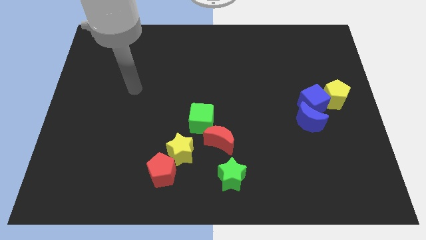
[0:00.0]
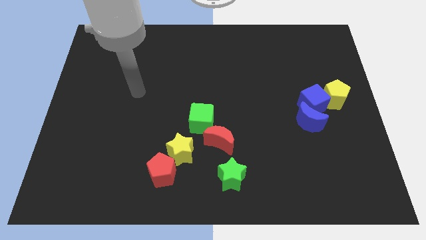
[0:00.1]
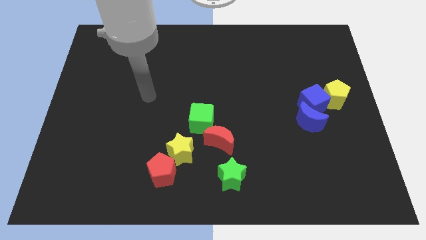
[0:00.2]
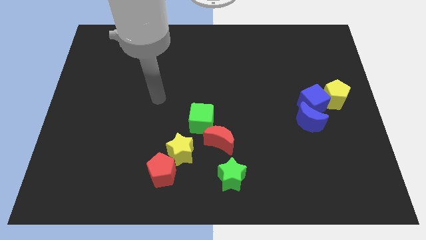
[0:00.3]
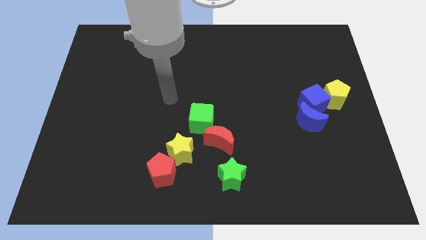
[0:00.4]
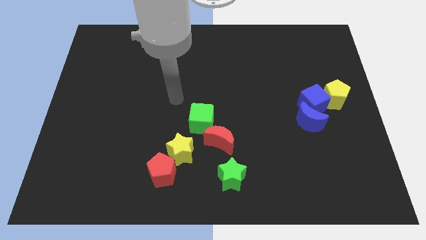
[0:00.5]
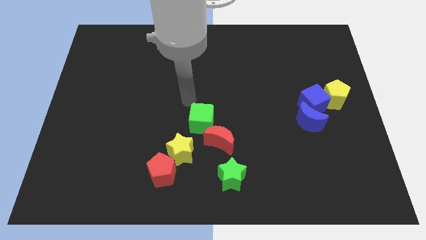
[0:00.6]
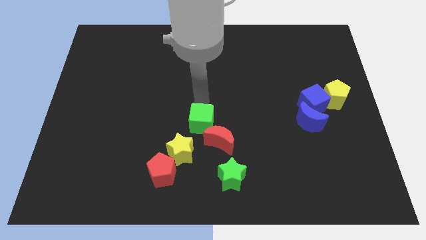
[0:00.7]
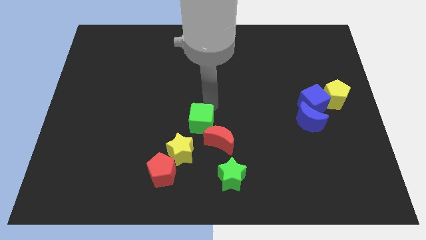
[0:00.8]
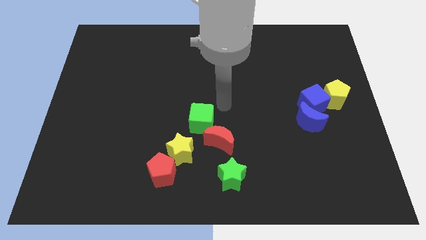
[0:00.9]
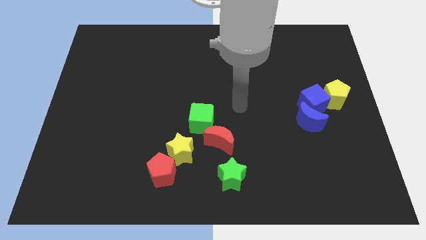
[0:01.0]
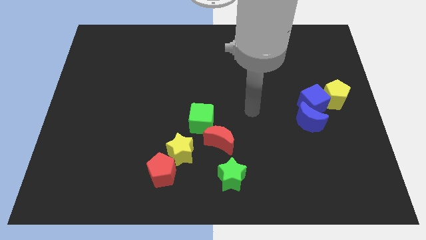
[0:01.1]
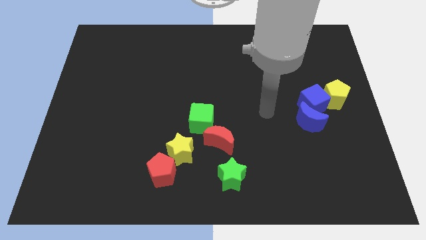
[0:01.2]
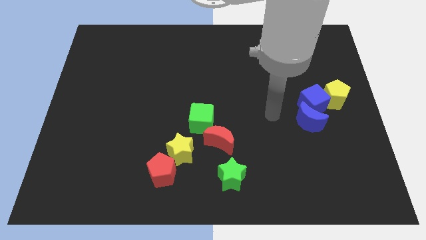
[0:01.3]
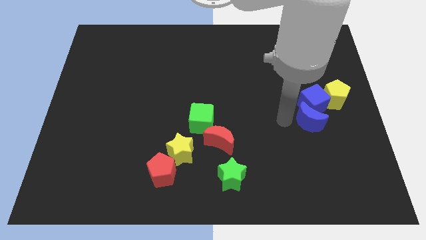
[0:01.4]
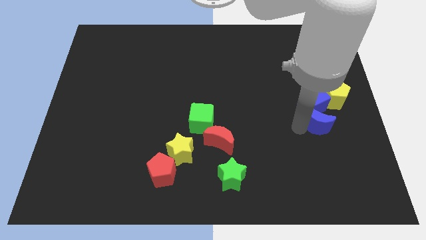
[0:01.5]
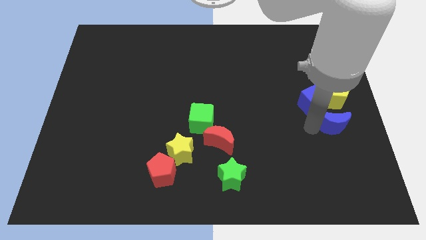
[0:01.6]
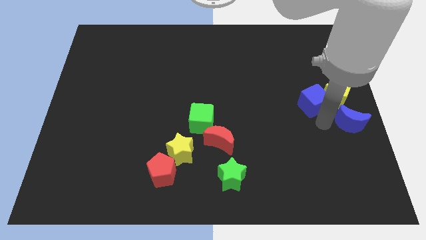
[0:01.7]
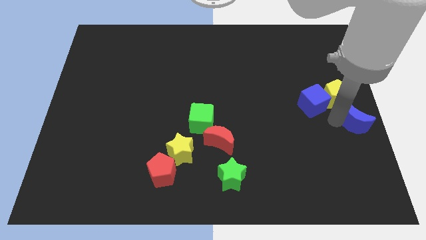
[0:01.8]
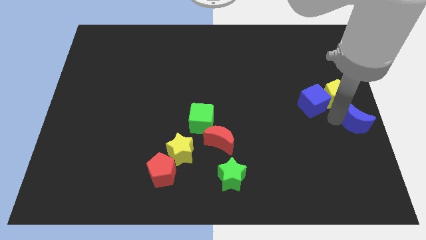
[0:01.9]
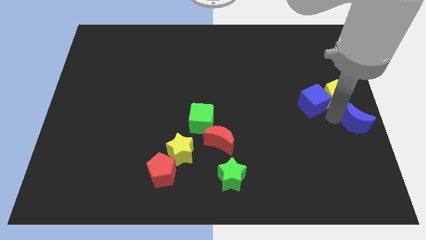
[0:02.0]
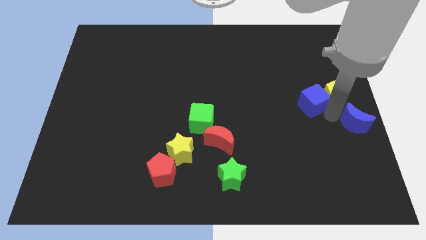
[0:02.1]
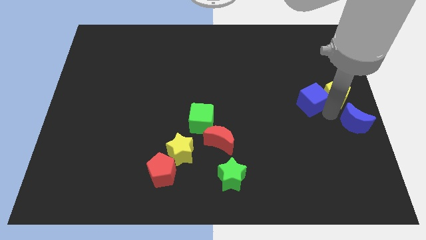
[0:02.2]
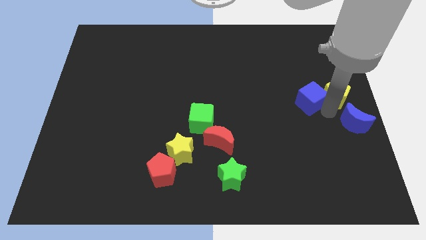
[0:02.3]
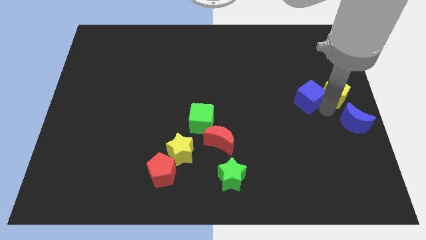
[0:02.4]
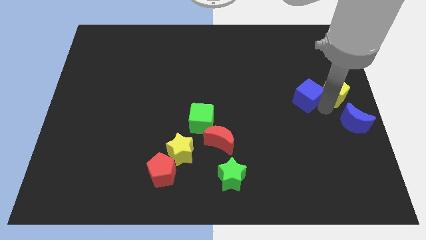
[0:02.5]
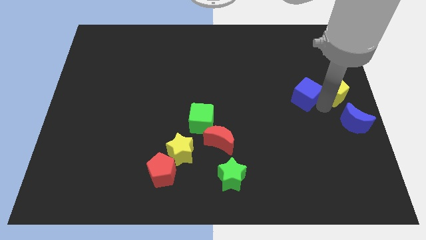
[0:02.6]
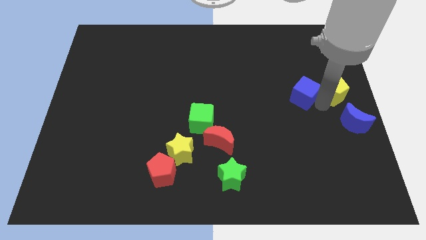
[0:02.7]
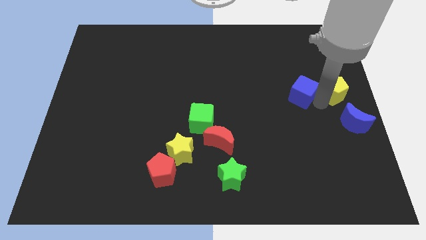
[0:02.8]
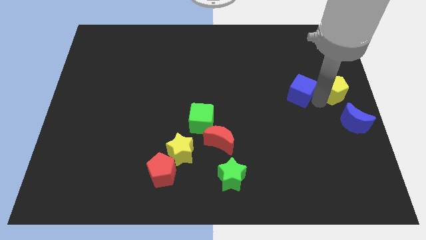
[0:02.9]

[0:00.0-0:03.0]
pull the blue cube apart from the blue moon and yellow pentagon

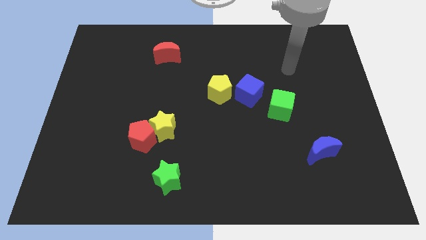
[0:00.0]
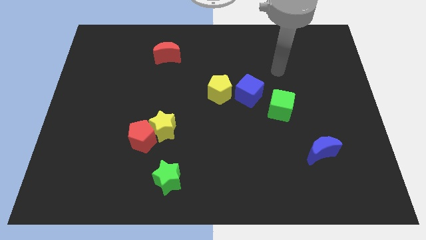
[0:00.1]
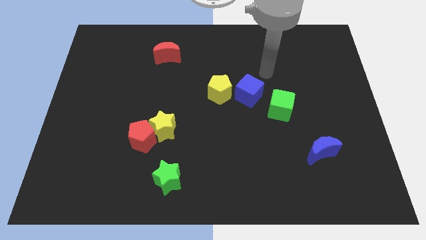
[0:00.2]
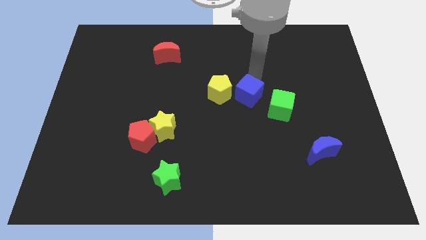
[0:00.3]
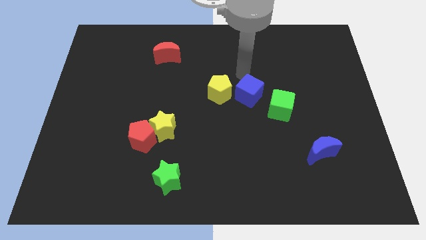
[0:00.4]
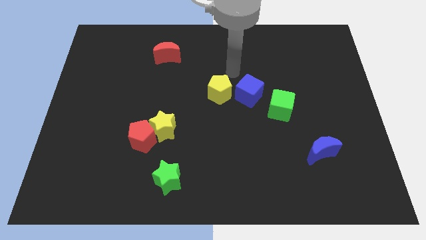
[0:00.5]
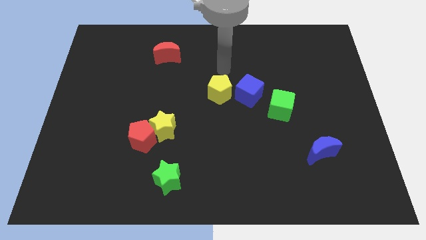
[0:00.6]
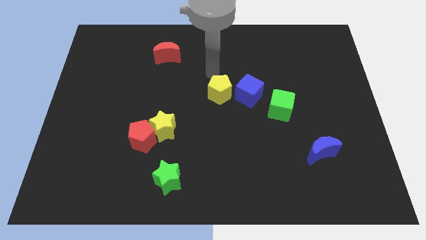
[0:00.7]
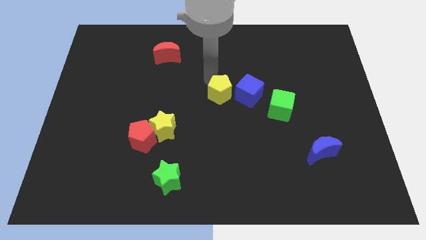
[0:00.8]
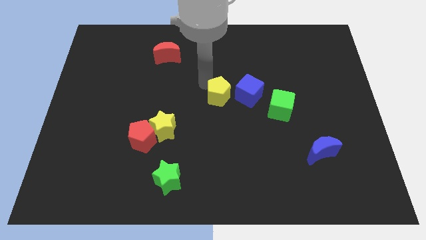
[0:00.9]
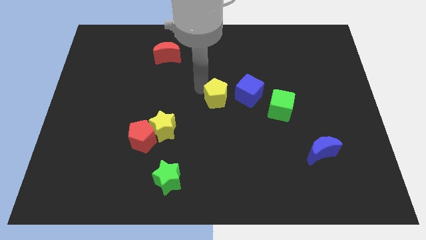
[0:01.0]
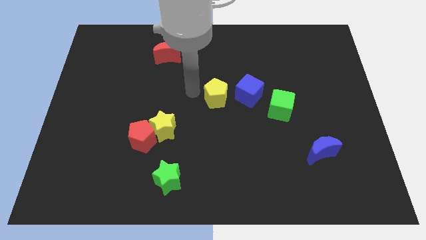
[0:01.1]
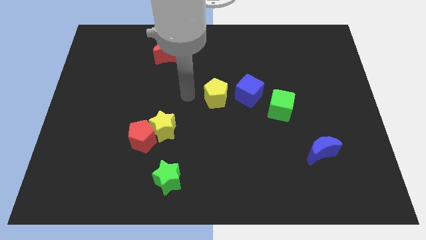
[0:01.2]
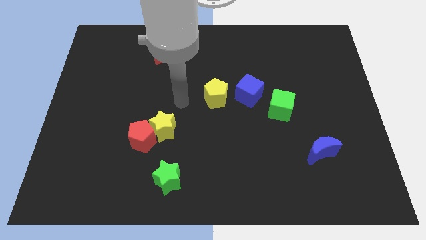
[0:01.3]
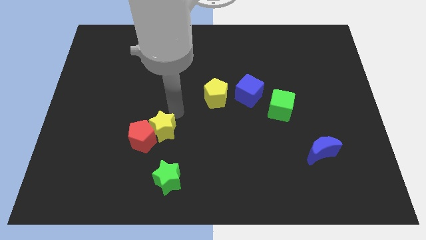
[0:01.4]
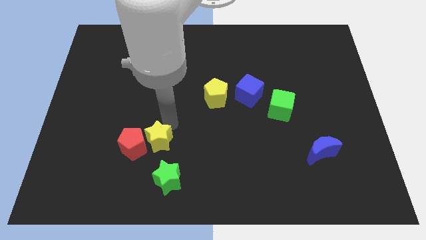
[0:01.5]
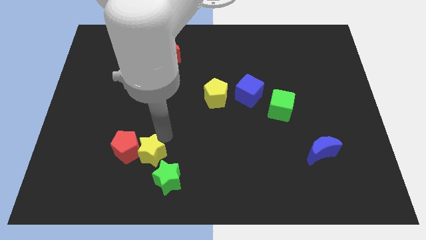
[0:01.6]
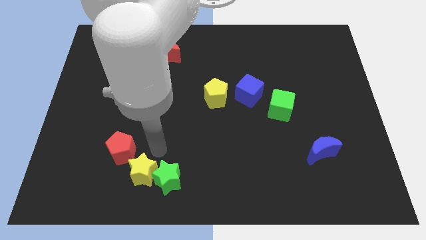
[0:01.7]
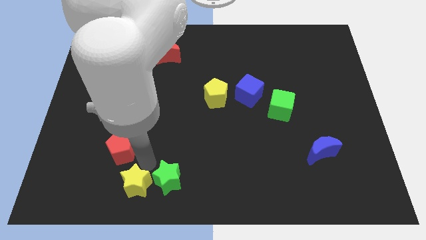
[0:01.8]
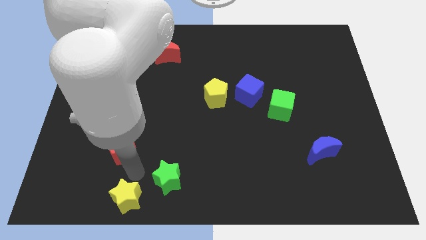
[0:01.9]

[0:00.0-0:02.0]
separate the red pentagon from the yellow star

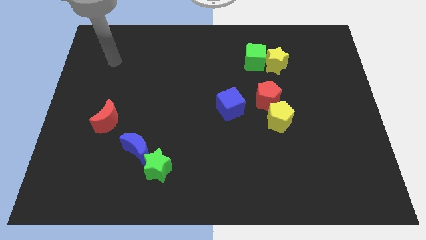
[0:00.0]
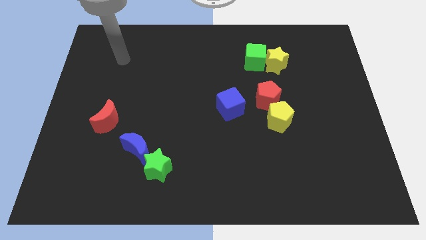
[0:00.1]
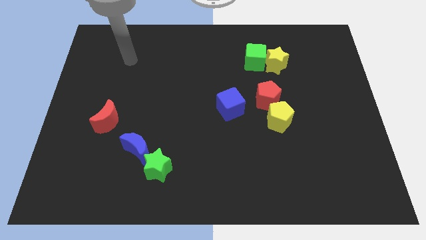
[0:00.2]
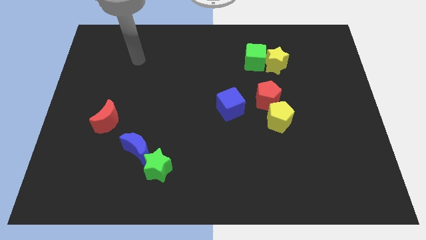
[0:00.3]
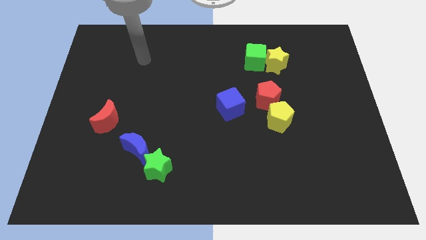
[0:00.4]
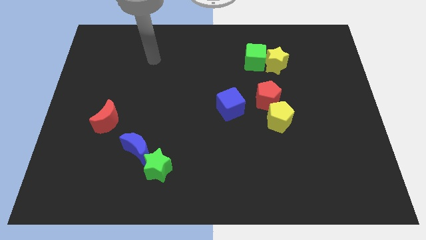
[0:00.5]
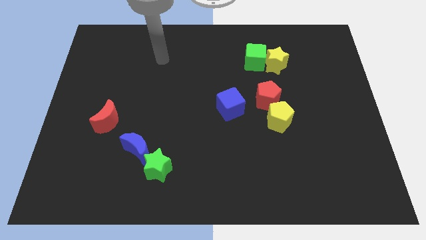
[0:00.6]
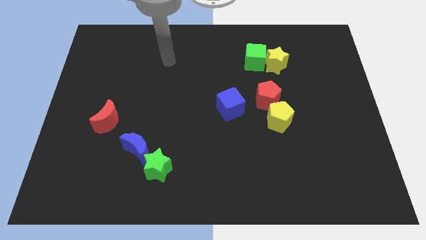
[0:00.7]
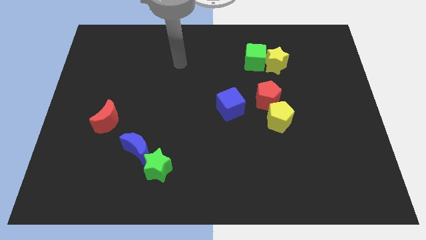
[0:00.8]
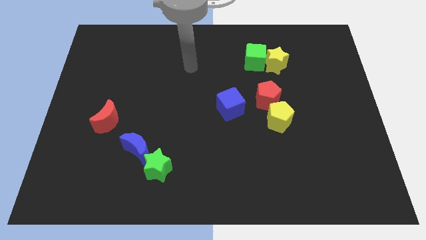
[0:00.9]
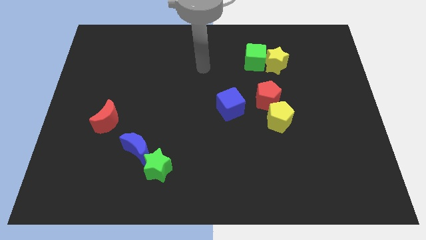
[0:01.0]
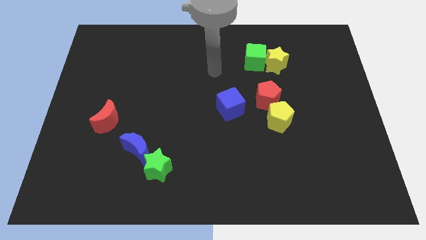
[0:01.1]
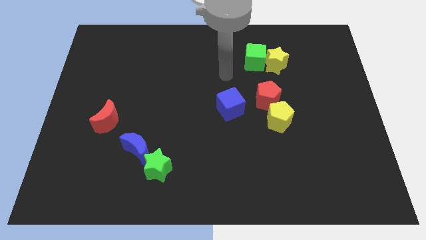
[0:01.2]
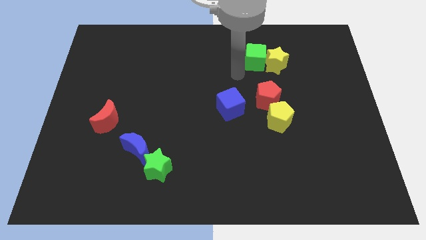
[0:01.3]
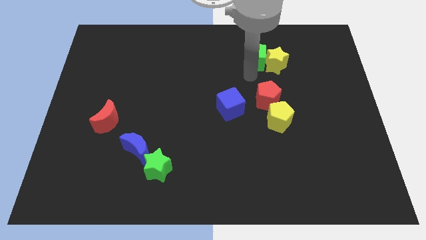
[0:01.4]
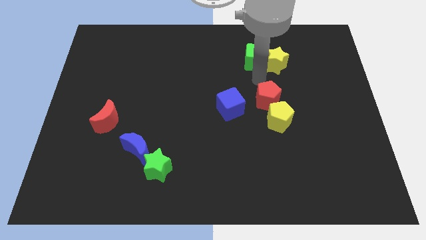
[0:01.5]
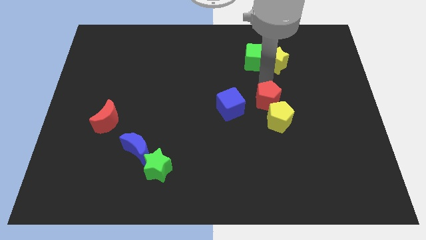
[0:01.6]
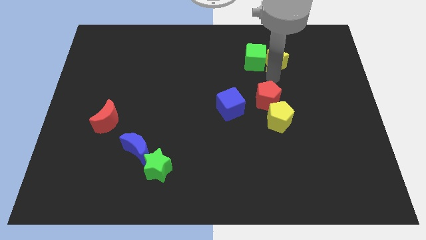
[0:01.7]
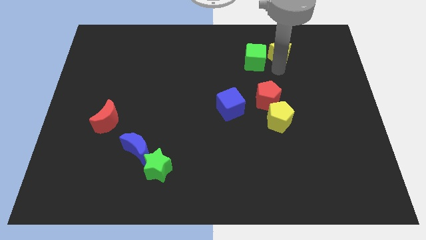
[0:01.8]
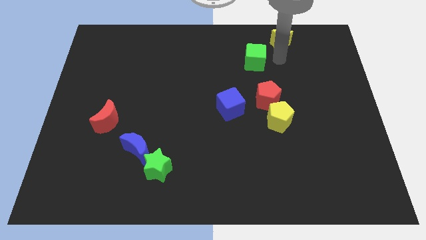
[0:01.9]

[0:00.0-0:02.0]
pull the green cube apart from the yellow star

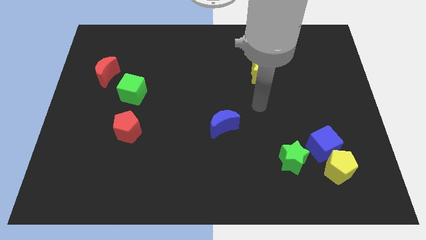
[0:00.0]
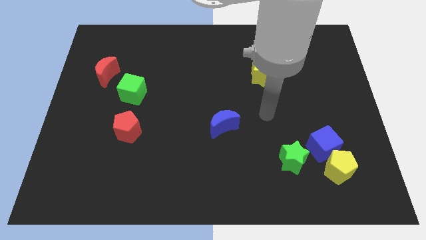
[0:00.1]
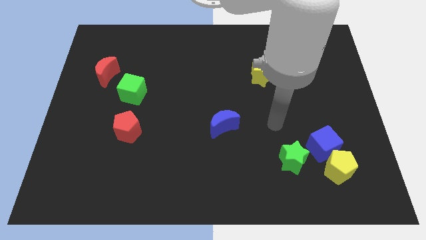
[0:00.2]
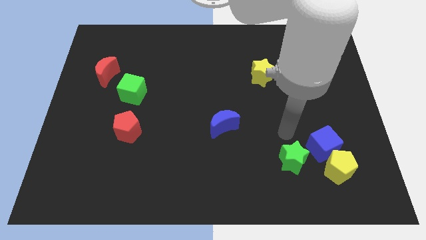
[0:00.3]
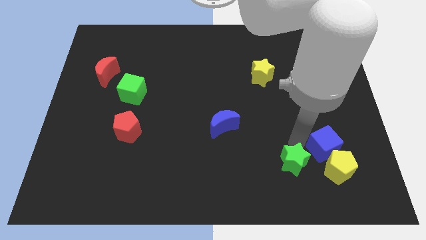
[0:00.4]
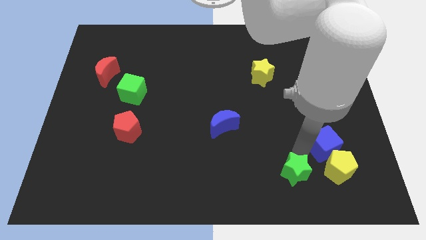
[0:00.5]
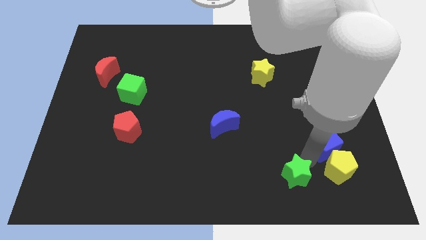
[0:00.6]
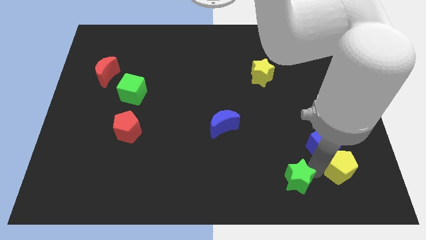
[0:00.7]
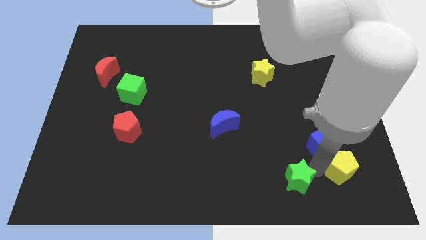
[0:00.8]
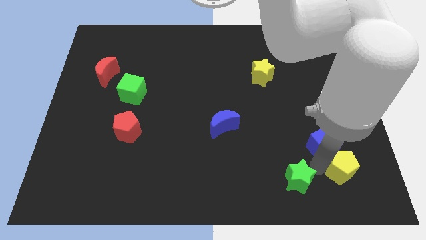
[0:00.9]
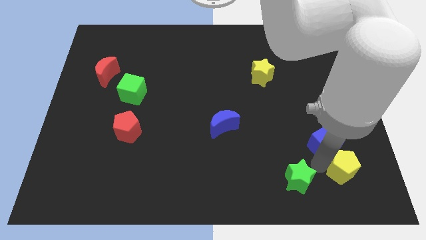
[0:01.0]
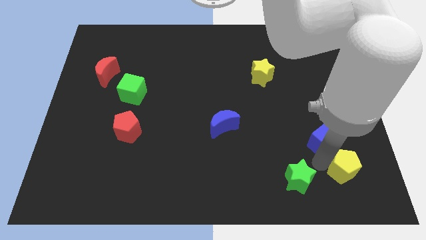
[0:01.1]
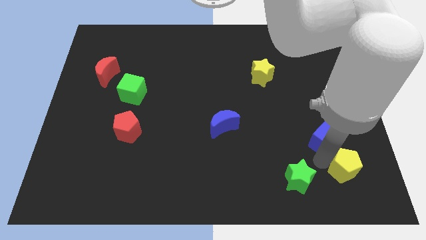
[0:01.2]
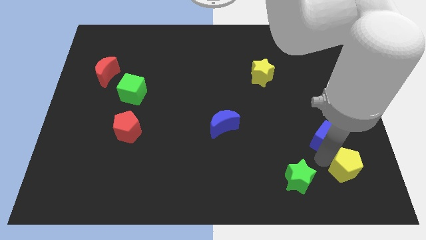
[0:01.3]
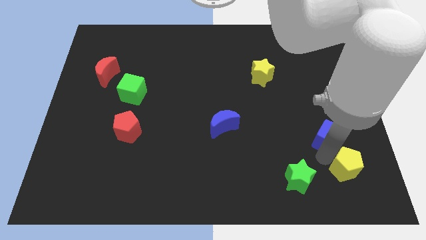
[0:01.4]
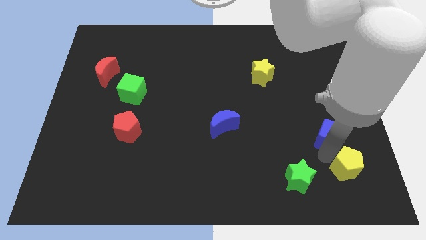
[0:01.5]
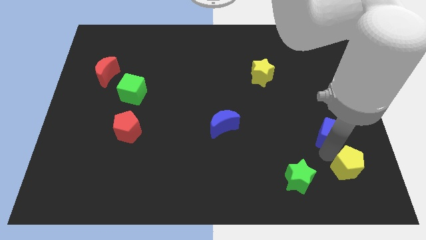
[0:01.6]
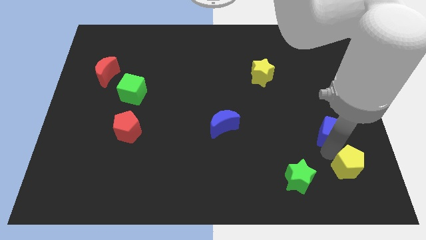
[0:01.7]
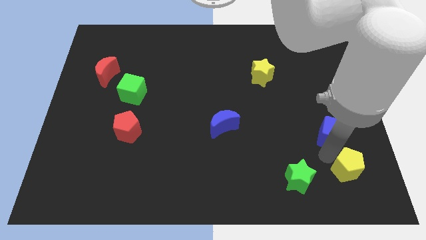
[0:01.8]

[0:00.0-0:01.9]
pull the blue cube apart from the yellow pentagon and green star

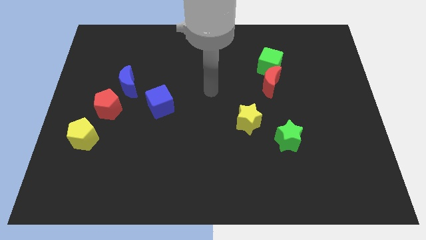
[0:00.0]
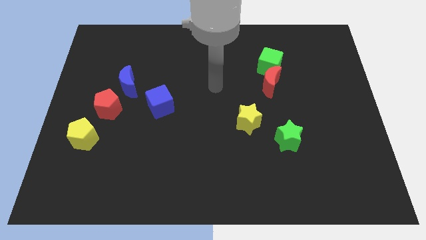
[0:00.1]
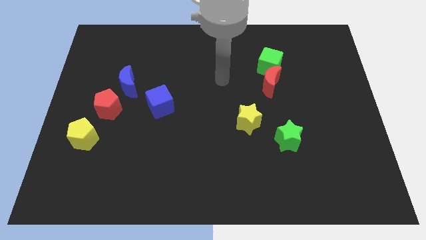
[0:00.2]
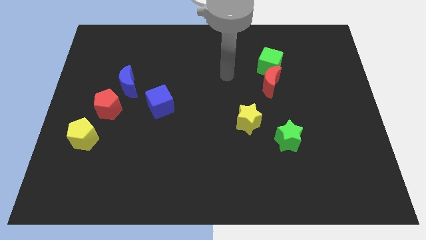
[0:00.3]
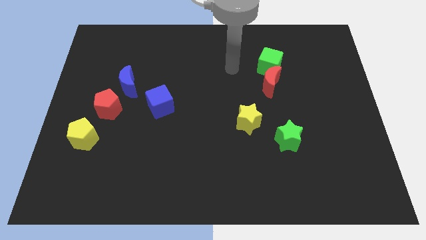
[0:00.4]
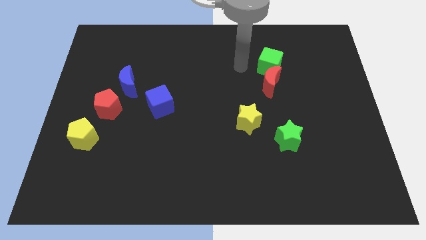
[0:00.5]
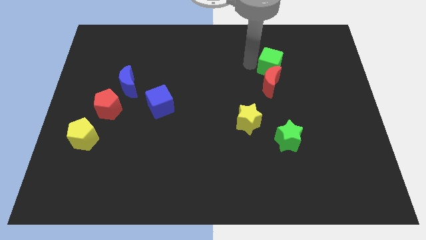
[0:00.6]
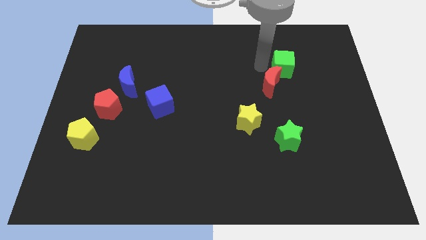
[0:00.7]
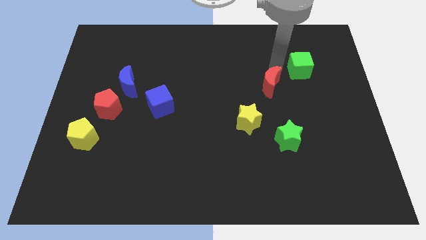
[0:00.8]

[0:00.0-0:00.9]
move the red moon away from the green cube
